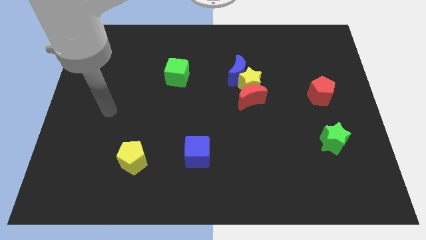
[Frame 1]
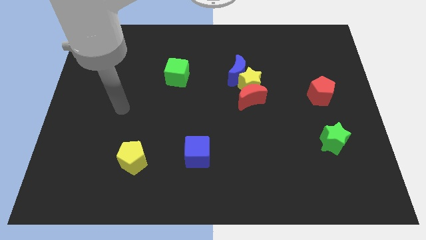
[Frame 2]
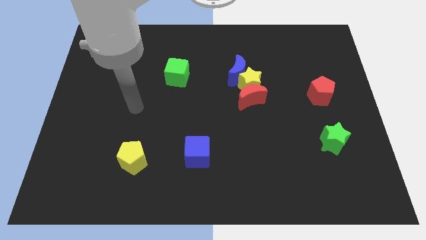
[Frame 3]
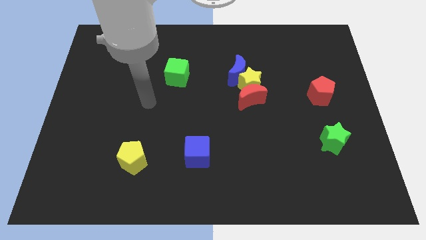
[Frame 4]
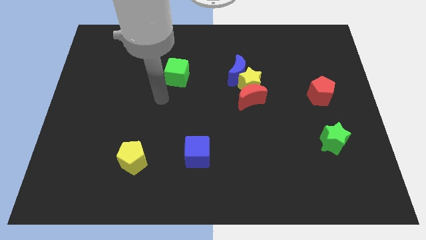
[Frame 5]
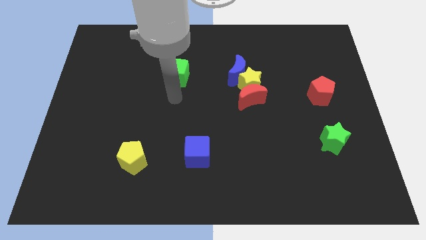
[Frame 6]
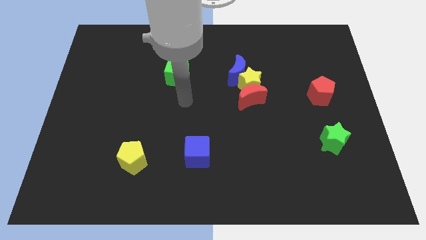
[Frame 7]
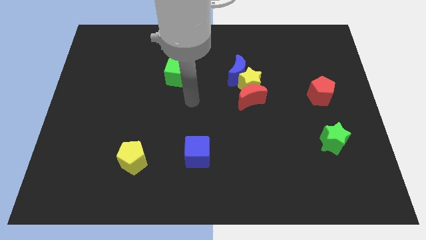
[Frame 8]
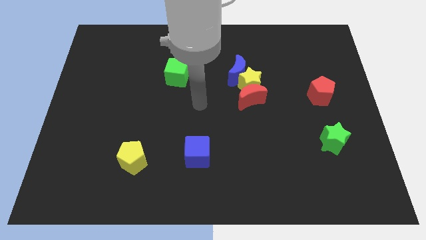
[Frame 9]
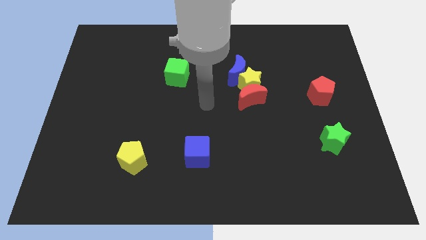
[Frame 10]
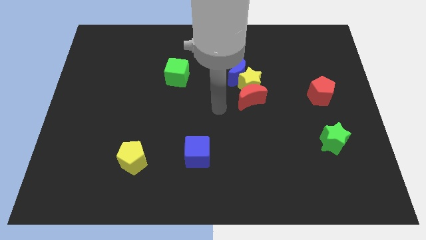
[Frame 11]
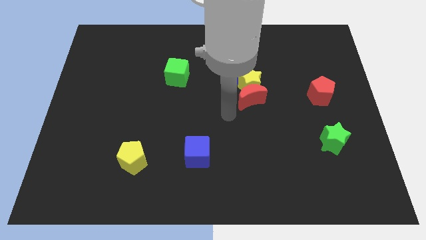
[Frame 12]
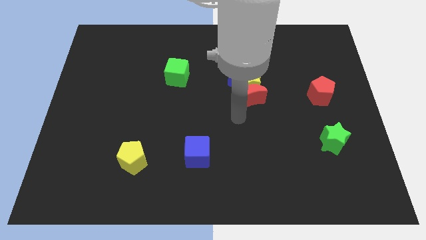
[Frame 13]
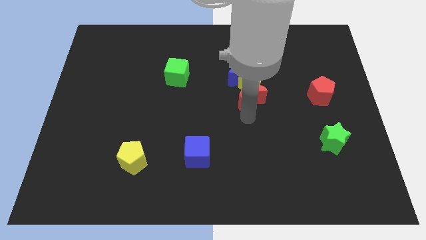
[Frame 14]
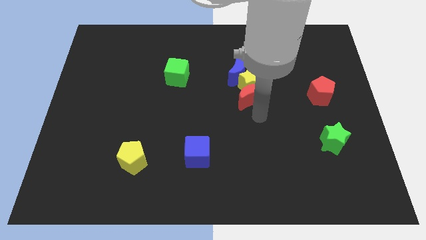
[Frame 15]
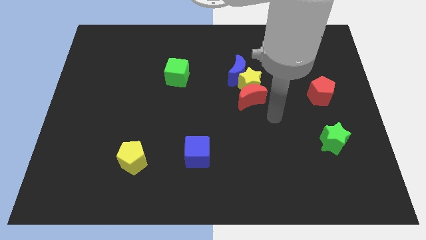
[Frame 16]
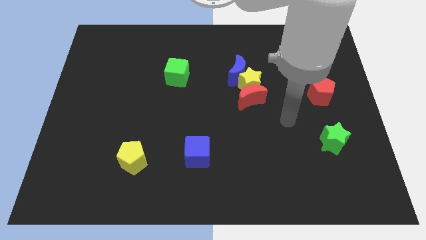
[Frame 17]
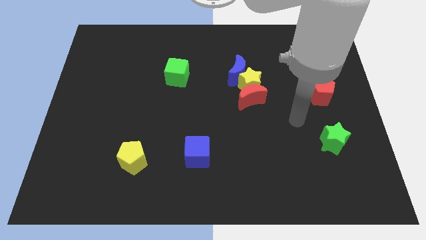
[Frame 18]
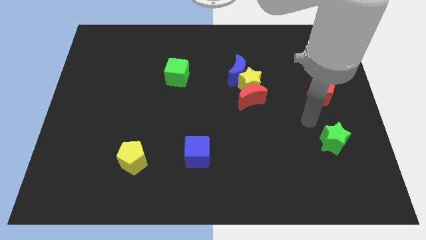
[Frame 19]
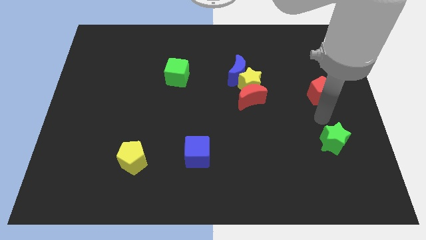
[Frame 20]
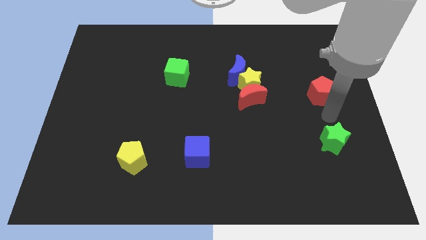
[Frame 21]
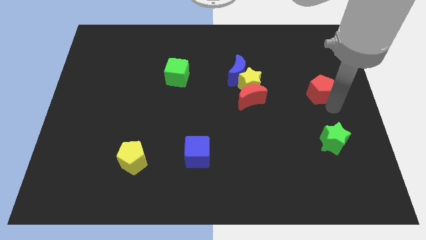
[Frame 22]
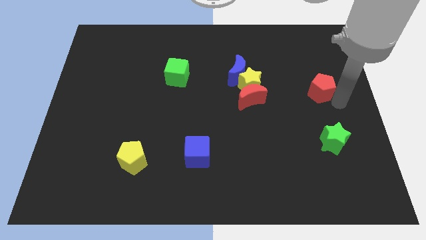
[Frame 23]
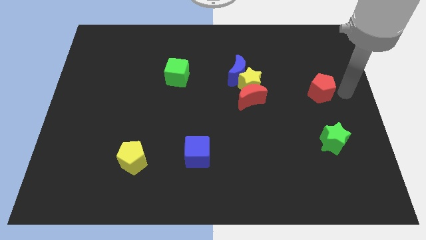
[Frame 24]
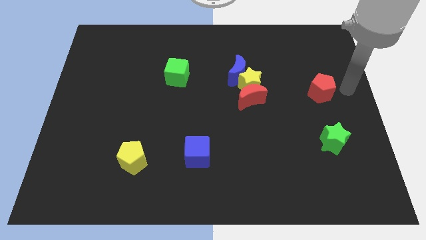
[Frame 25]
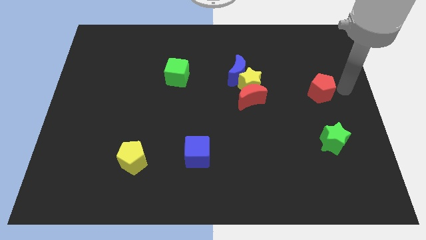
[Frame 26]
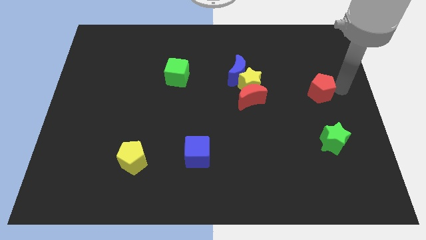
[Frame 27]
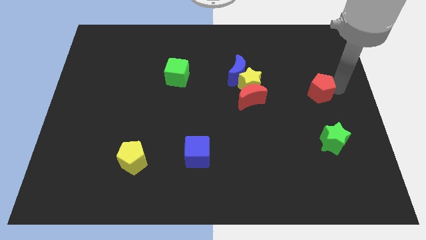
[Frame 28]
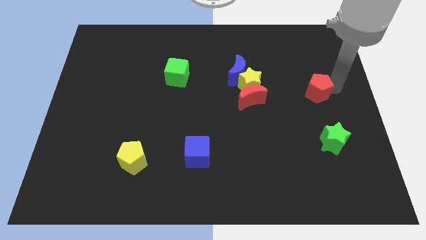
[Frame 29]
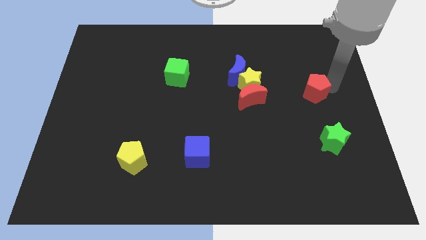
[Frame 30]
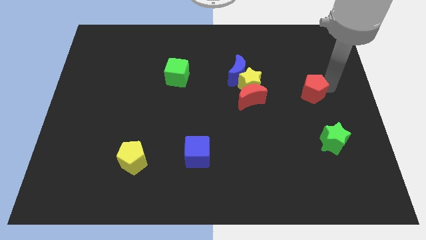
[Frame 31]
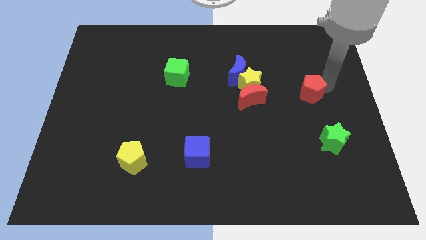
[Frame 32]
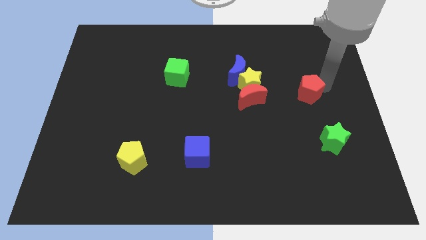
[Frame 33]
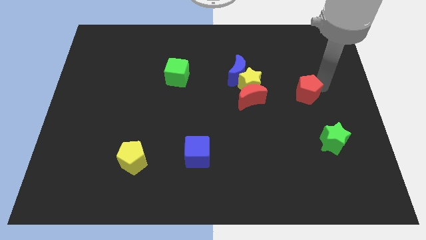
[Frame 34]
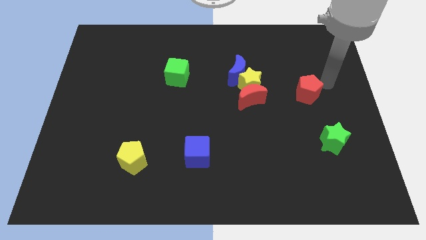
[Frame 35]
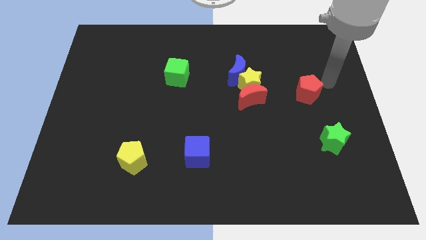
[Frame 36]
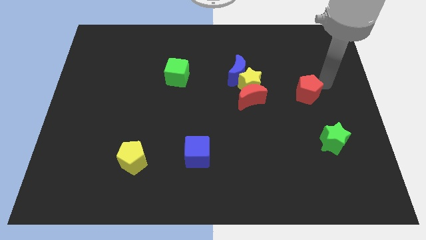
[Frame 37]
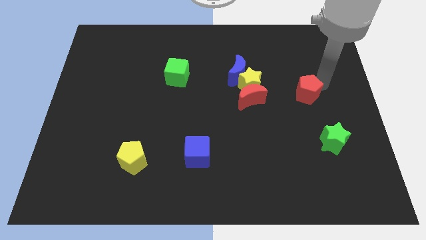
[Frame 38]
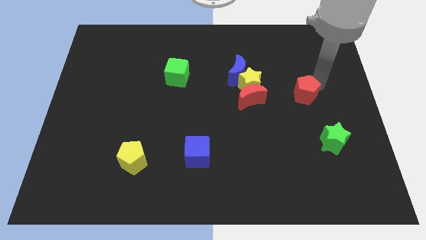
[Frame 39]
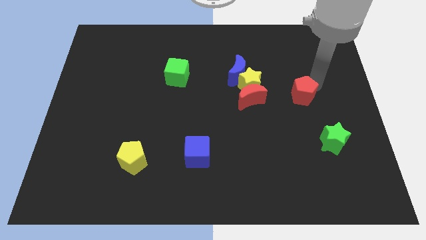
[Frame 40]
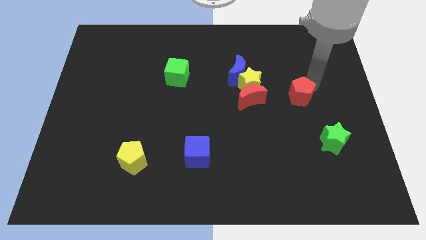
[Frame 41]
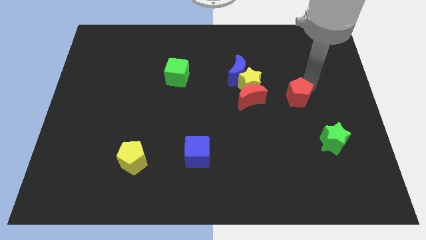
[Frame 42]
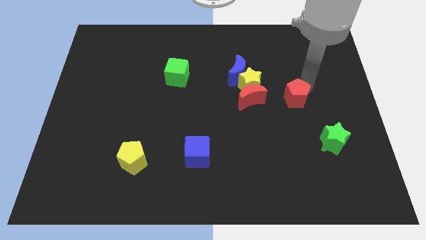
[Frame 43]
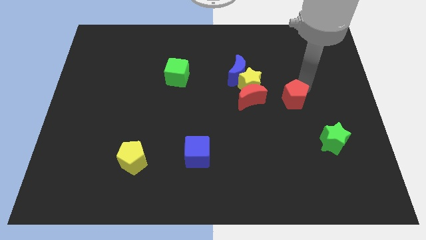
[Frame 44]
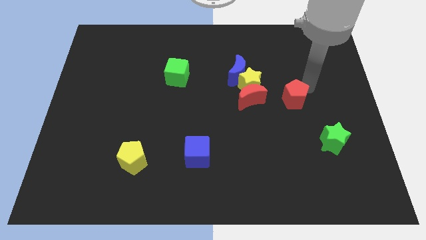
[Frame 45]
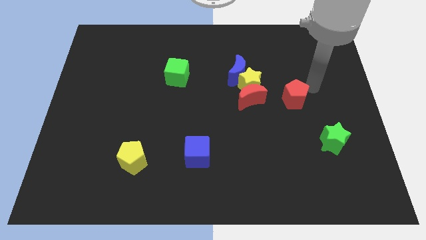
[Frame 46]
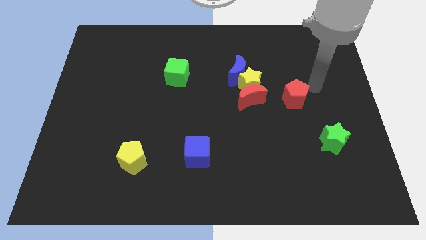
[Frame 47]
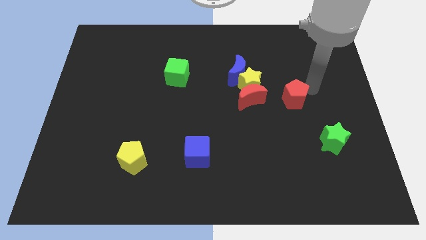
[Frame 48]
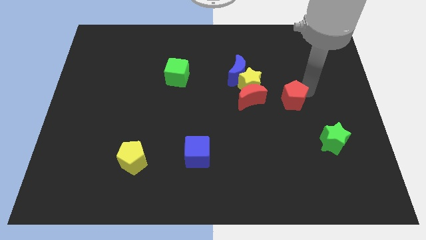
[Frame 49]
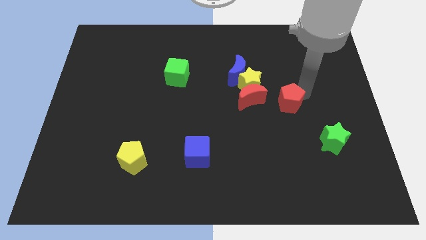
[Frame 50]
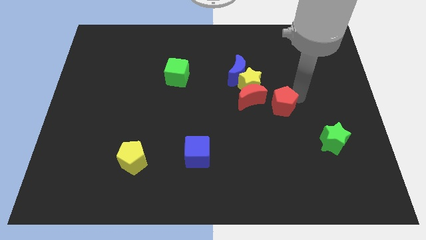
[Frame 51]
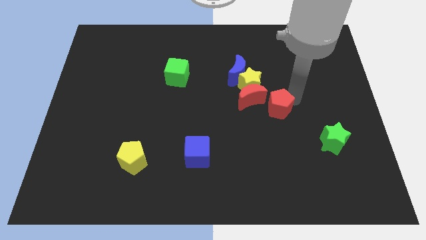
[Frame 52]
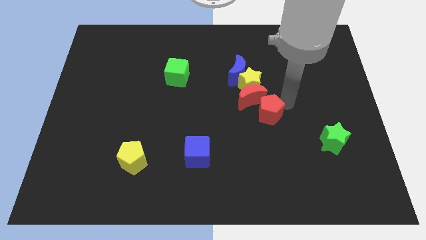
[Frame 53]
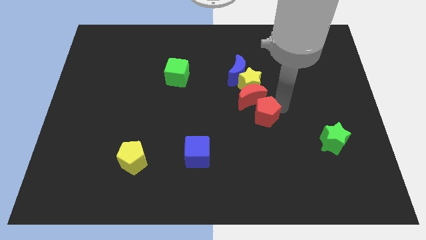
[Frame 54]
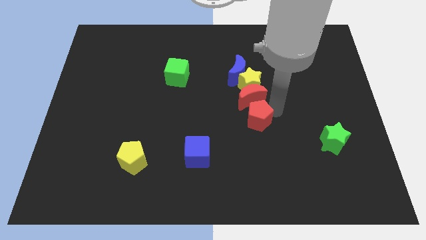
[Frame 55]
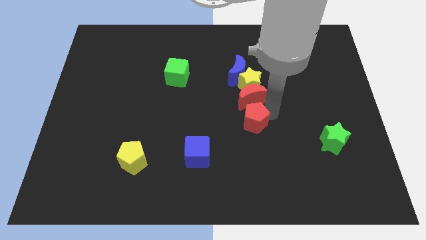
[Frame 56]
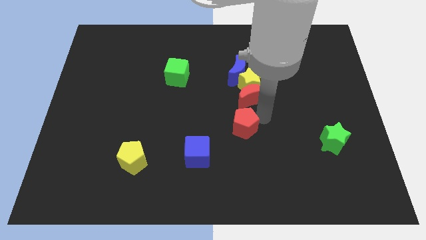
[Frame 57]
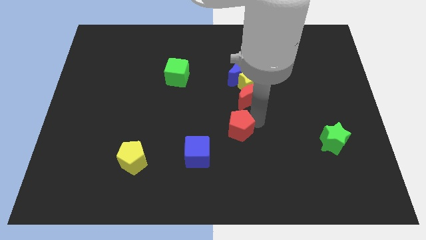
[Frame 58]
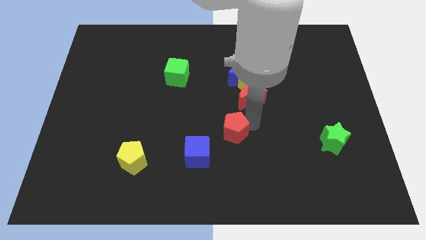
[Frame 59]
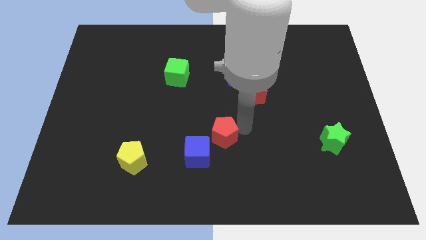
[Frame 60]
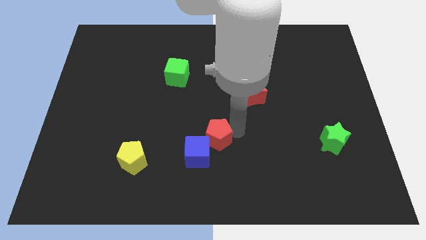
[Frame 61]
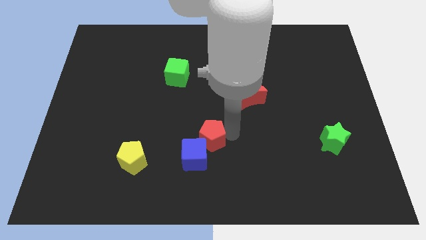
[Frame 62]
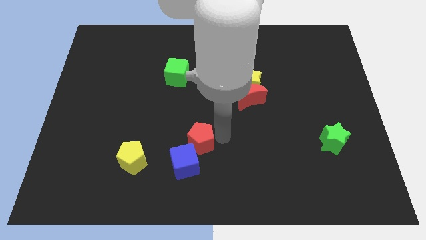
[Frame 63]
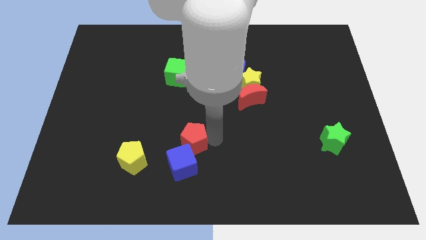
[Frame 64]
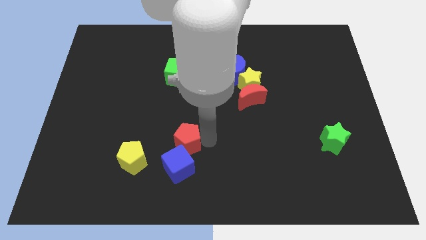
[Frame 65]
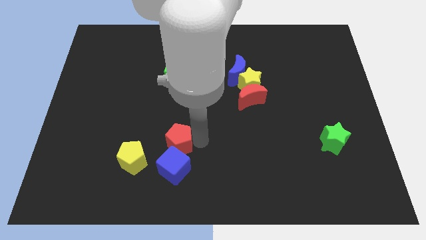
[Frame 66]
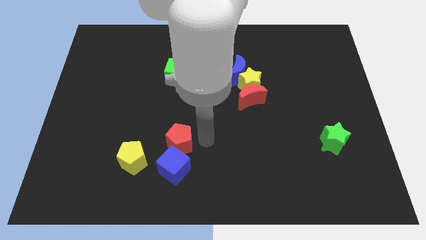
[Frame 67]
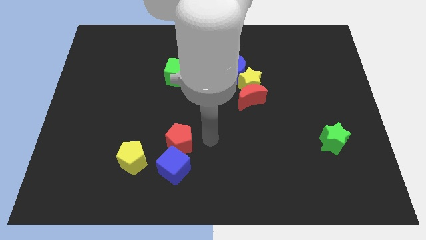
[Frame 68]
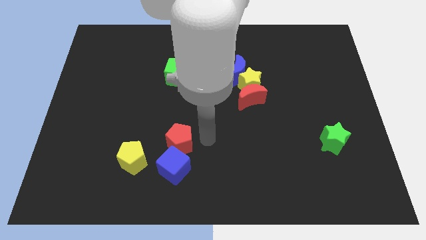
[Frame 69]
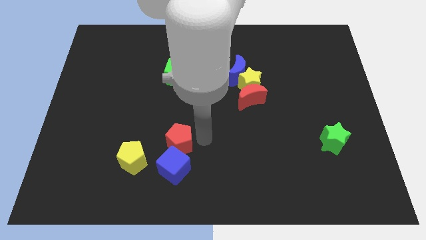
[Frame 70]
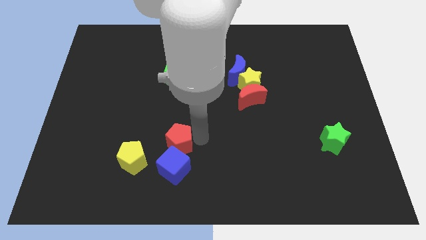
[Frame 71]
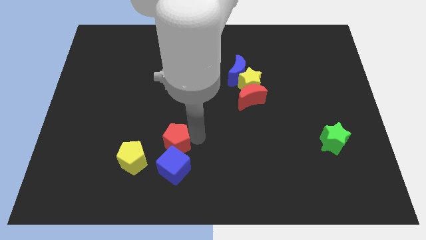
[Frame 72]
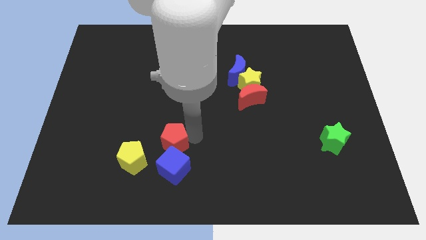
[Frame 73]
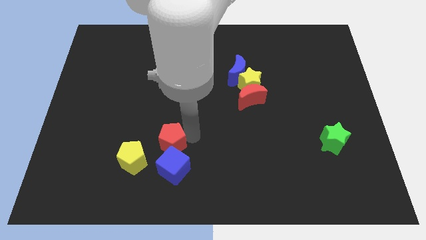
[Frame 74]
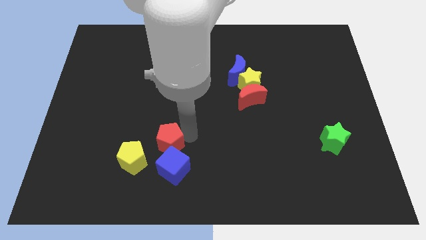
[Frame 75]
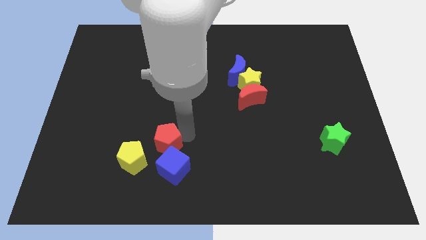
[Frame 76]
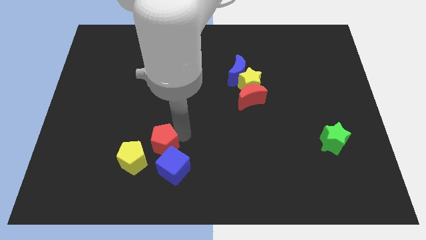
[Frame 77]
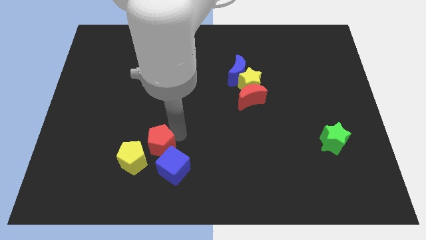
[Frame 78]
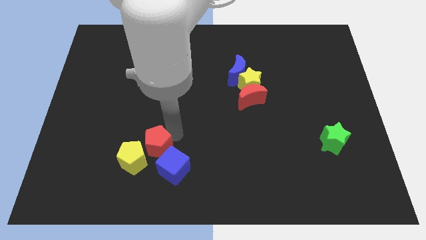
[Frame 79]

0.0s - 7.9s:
push the red pentagon to the yellow pentagon
